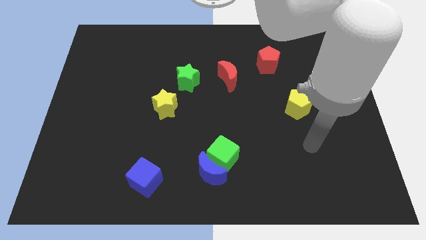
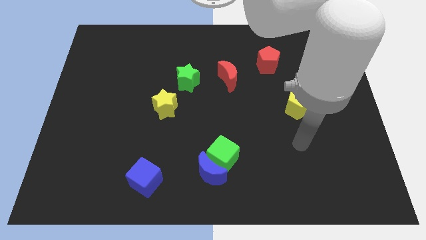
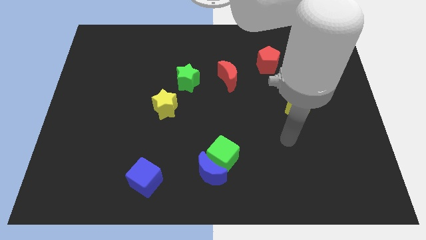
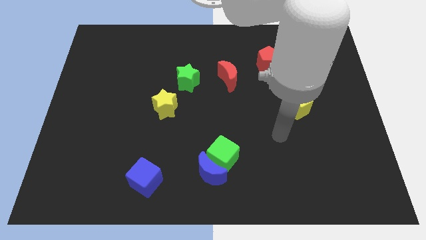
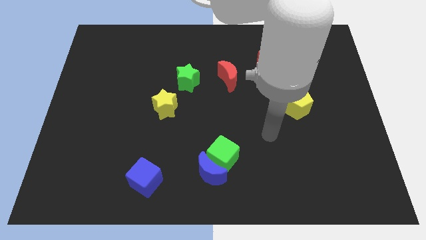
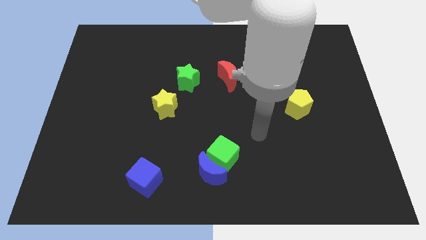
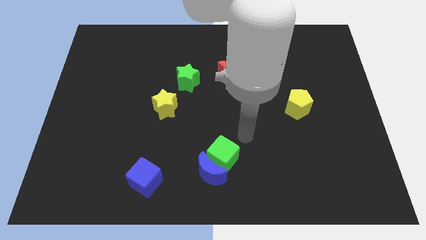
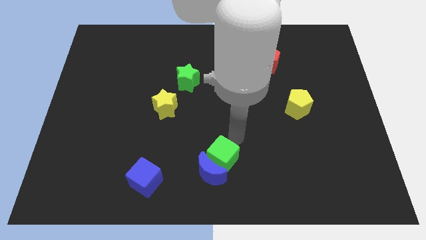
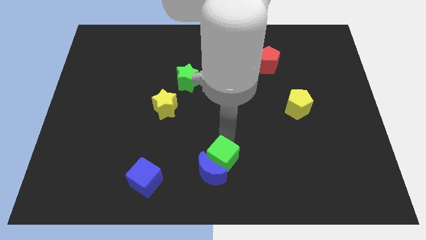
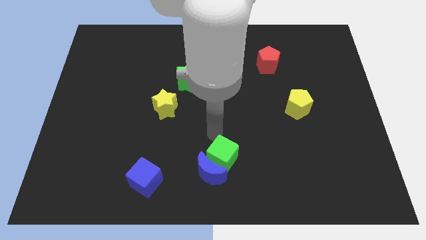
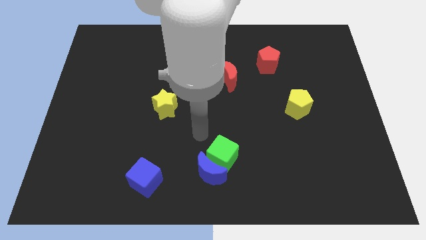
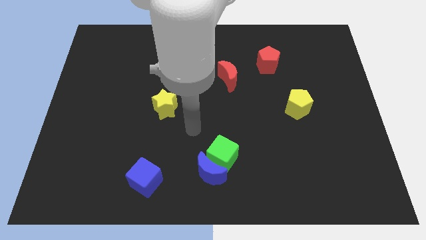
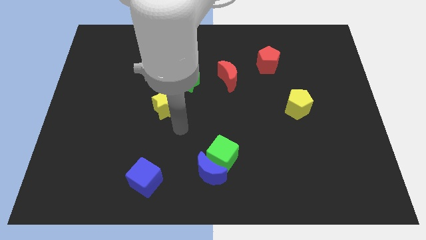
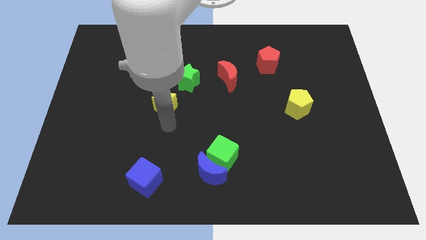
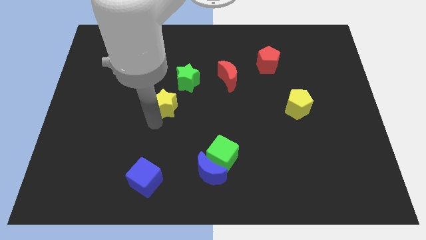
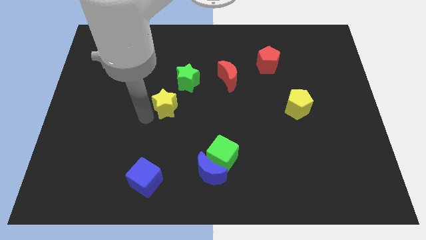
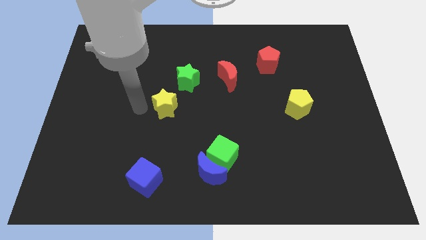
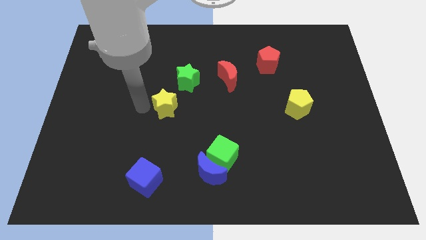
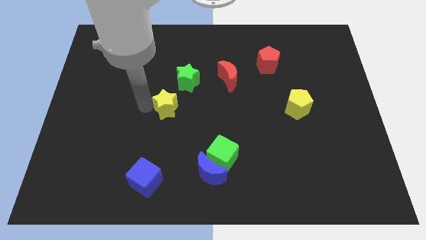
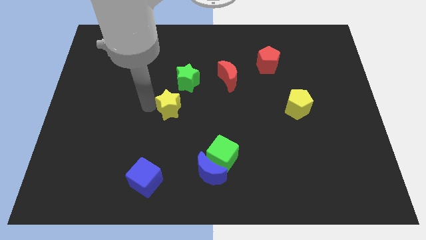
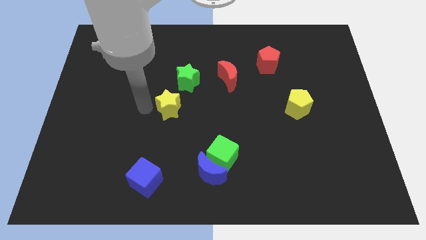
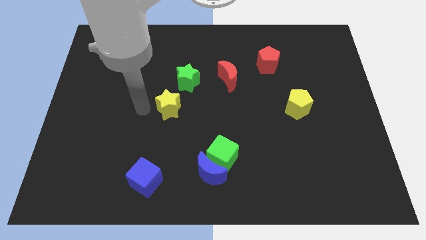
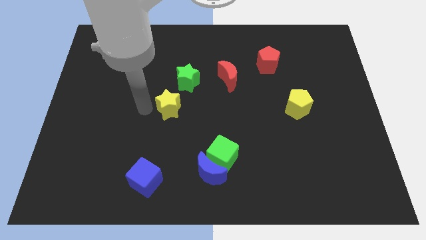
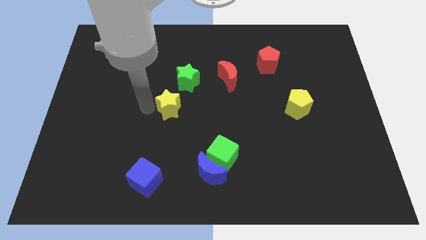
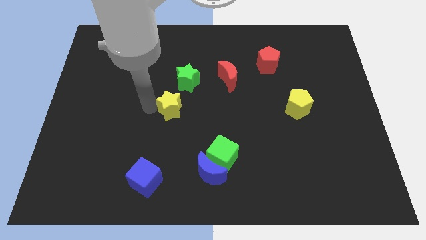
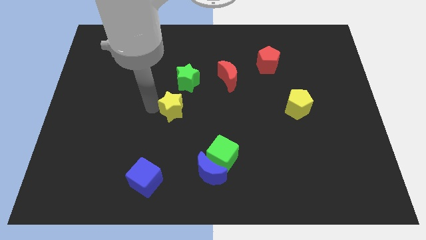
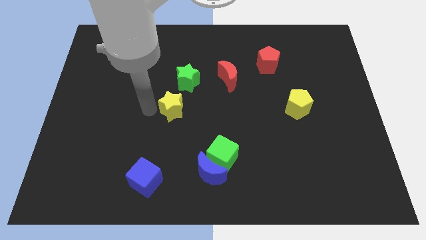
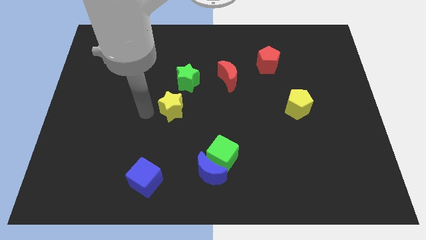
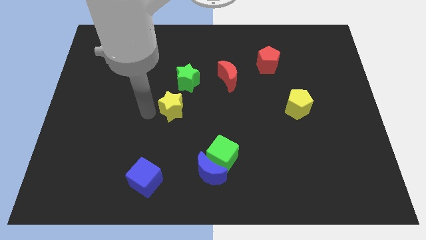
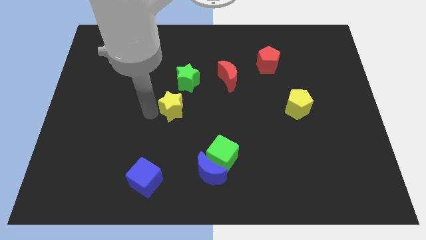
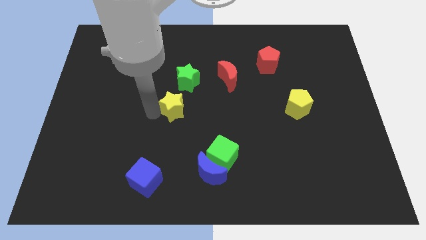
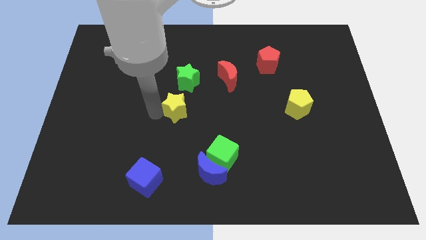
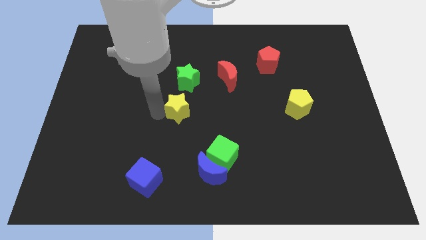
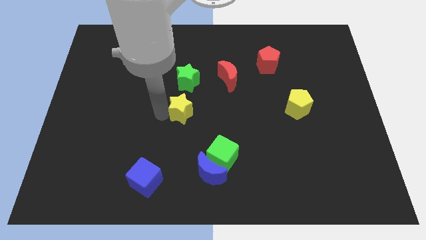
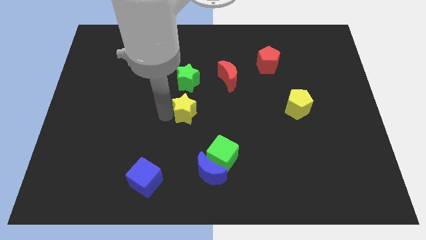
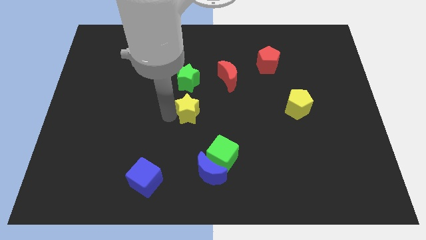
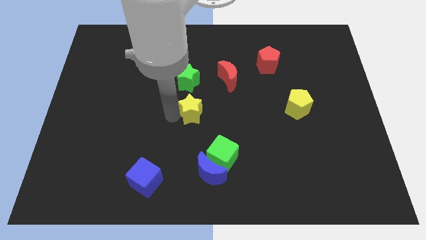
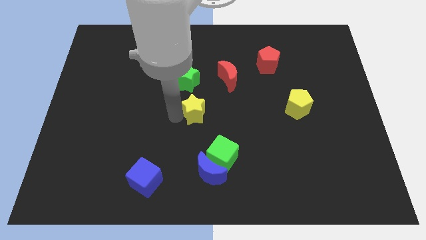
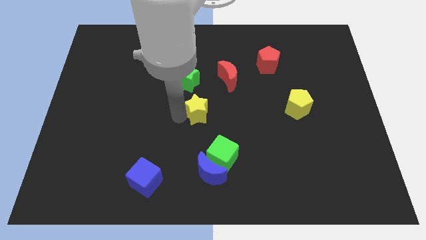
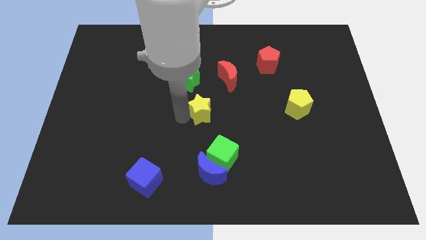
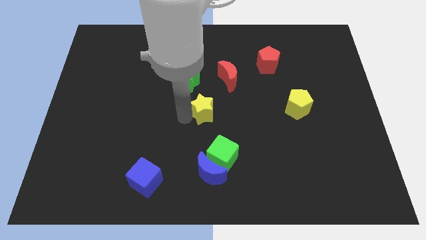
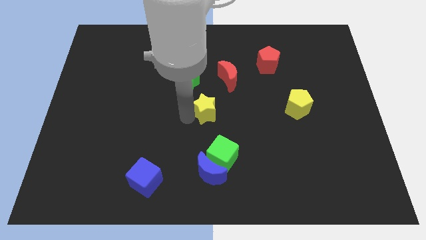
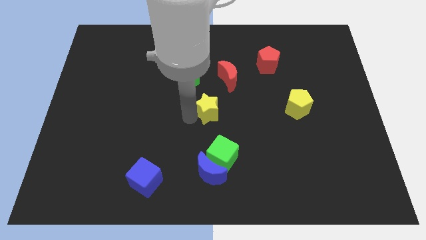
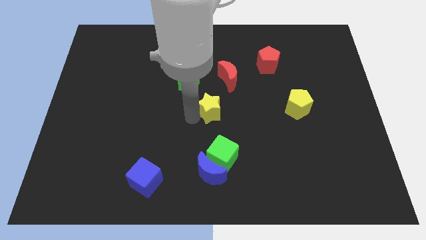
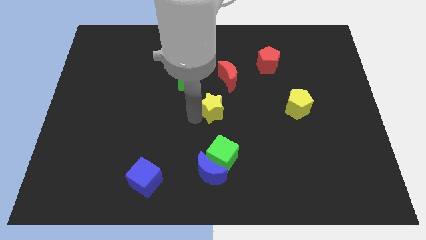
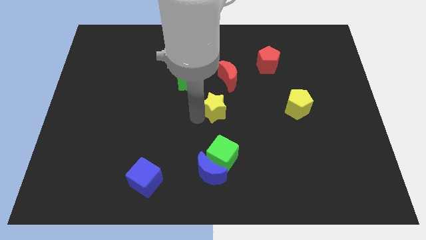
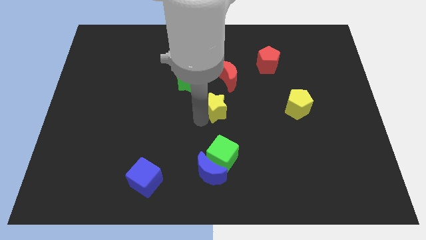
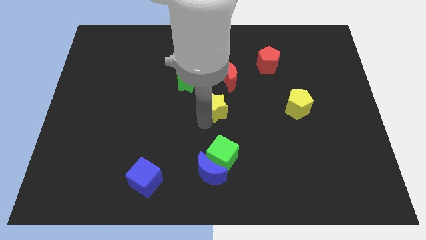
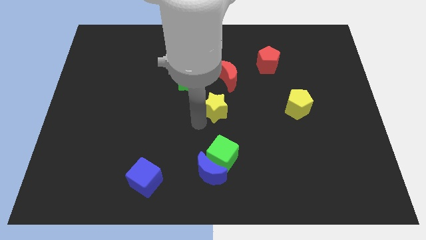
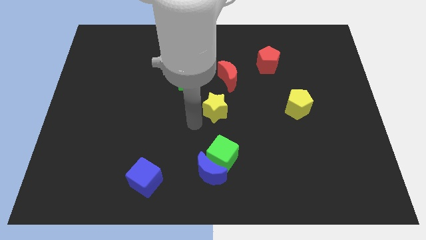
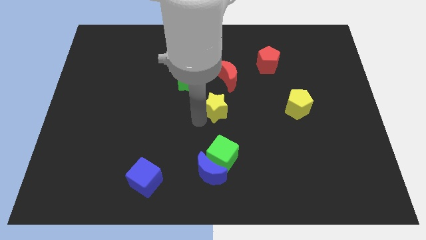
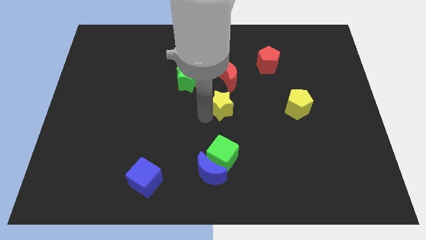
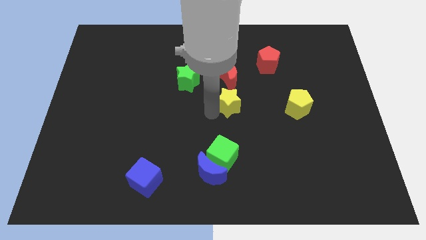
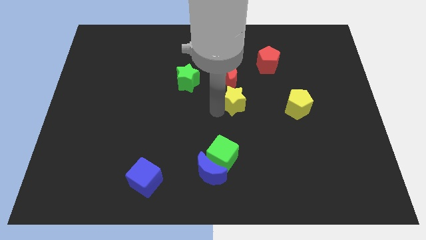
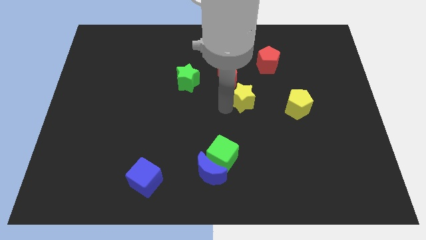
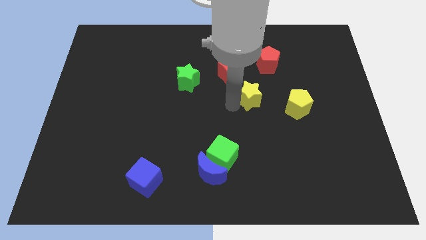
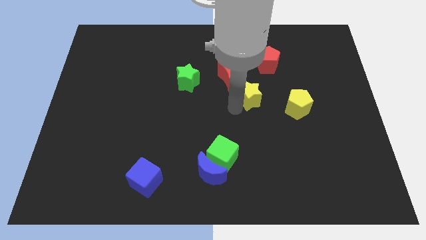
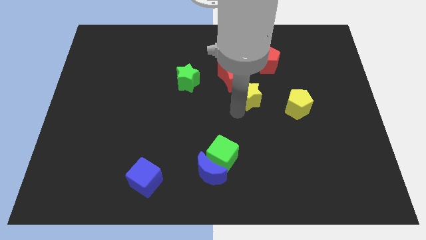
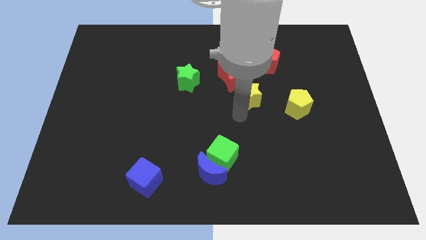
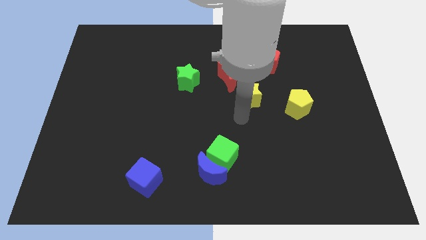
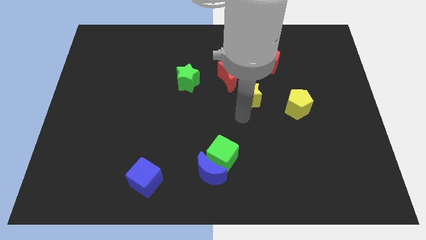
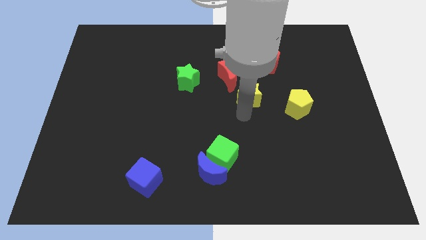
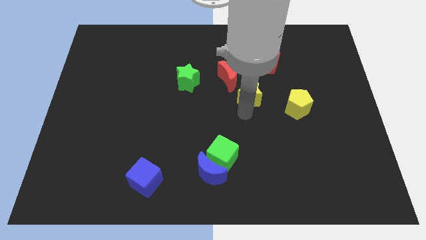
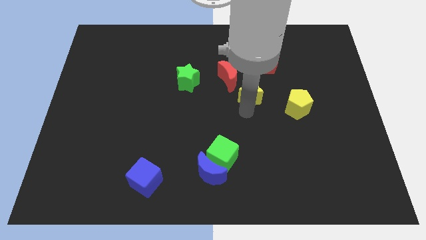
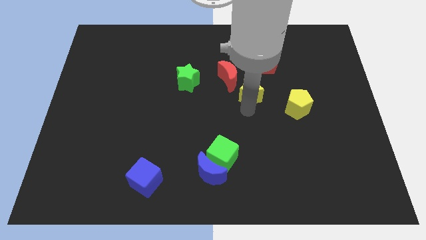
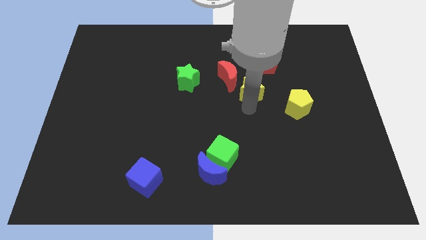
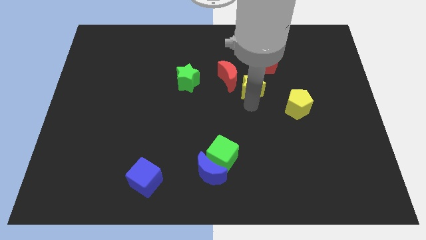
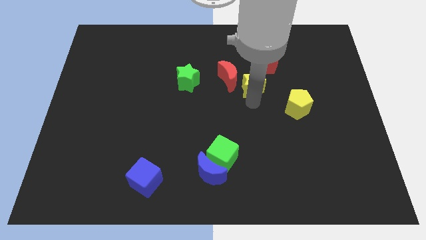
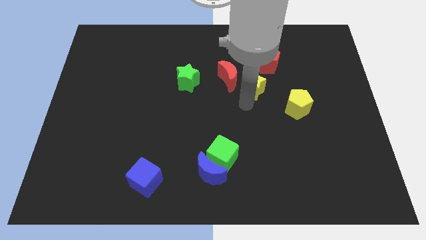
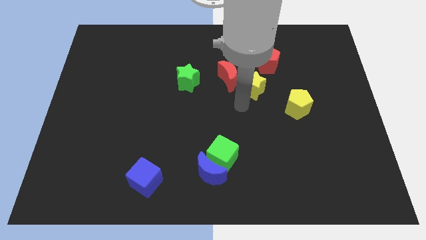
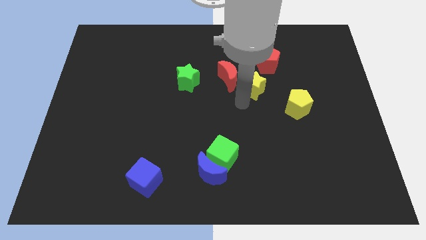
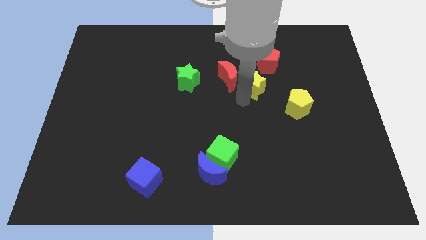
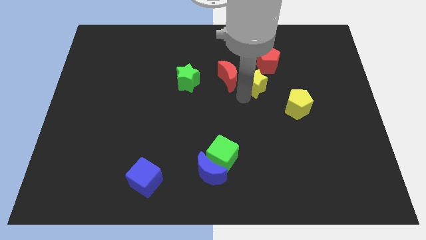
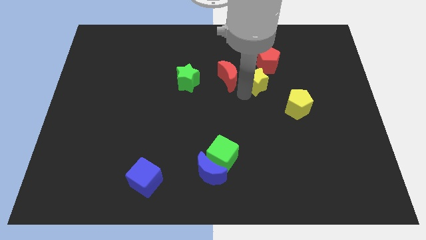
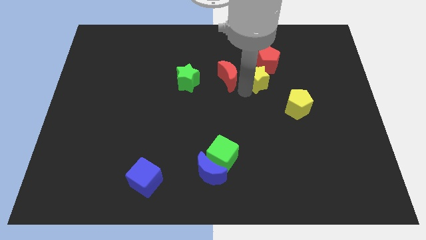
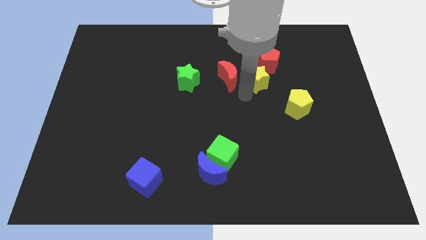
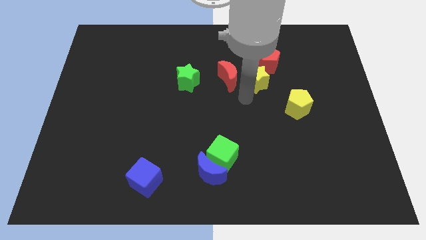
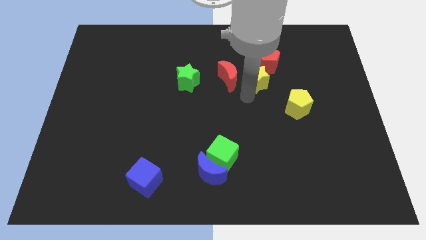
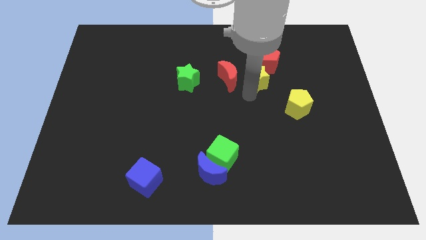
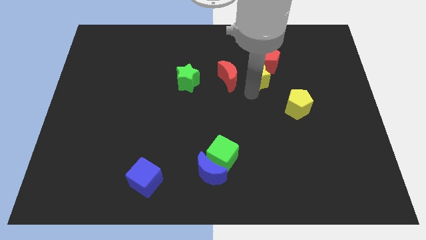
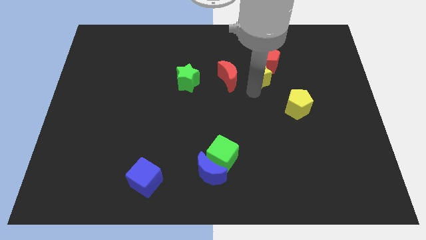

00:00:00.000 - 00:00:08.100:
push the yellow star to the red pentagon
